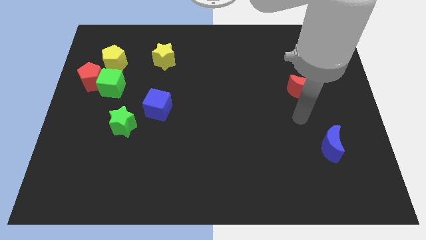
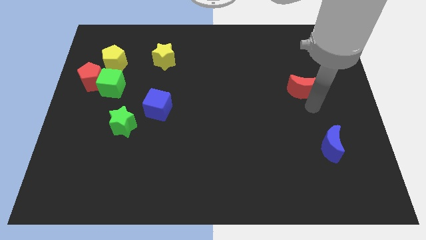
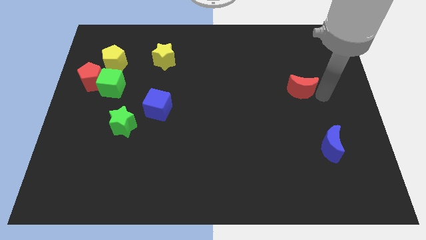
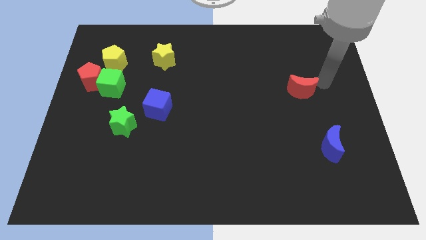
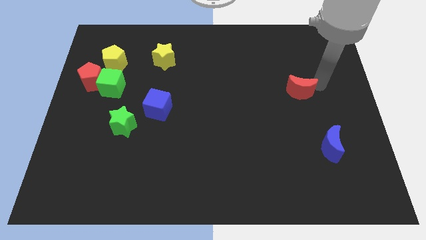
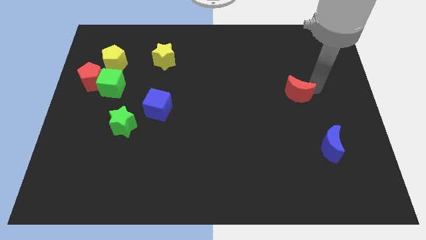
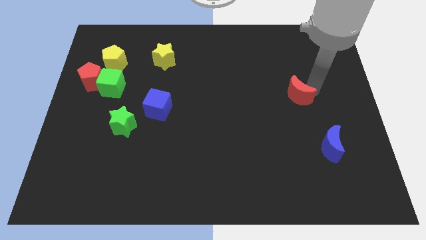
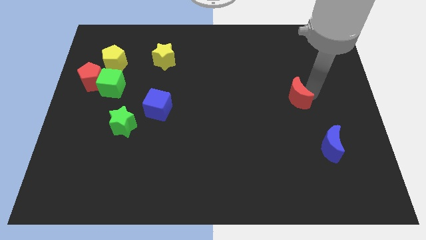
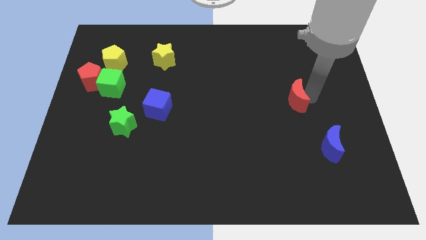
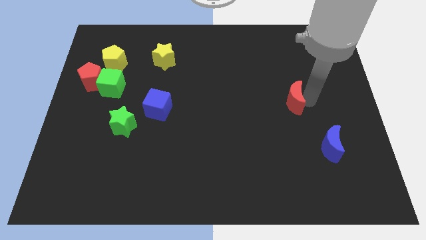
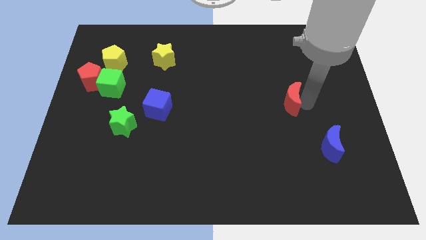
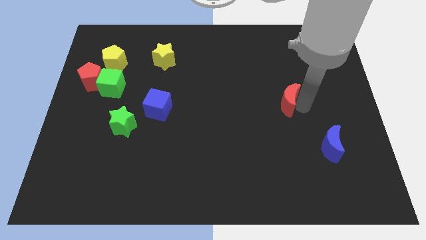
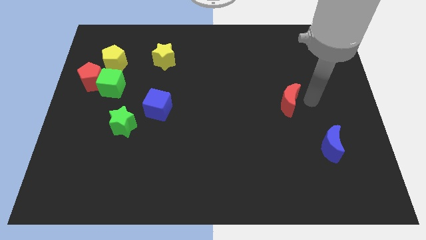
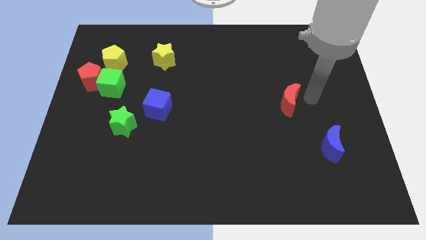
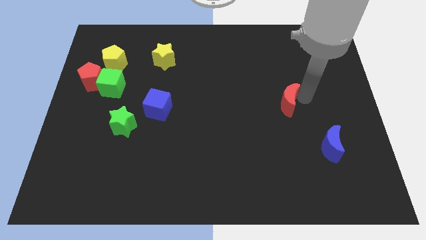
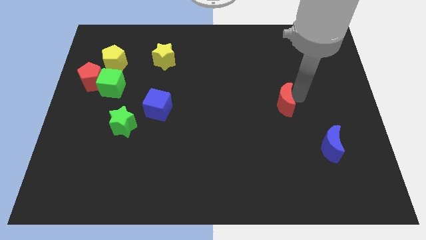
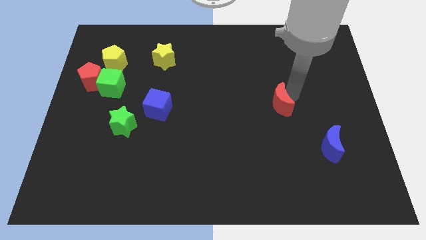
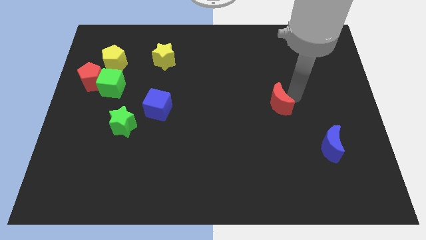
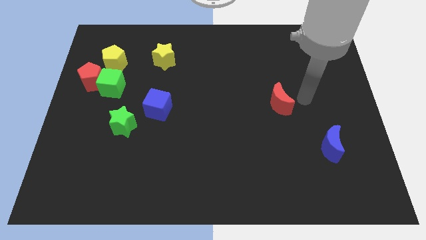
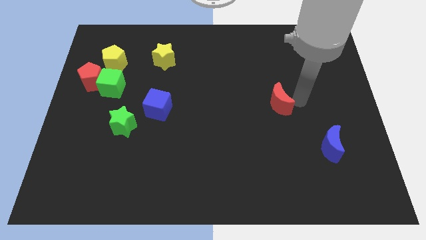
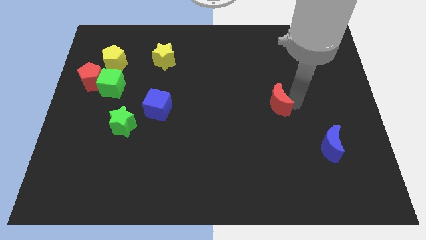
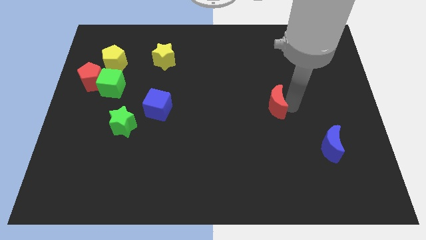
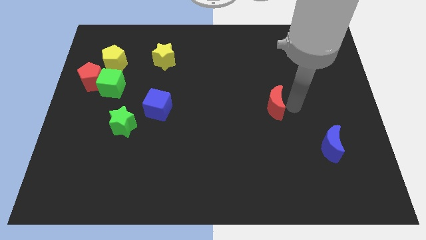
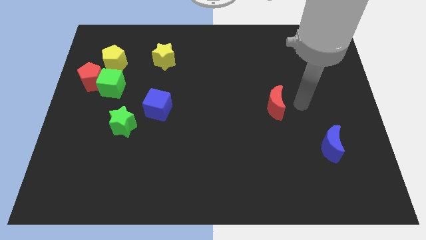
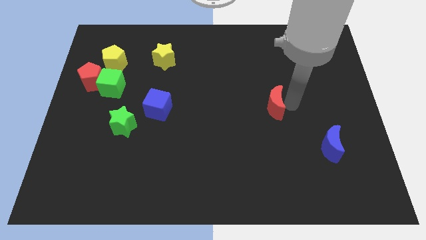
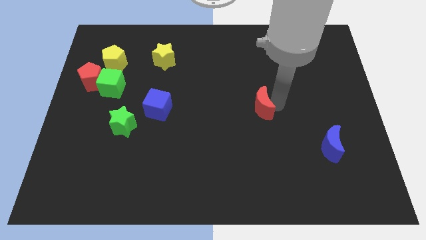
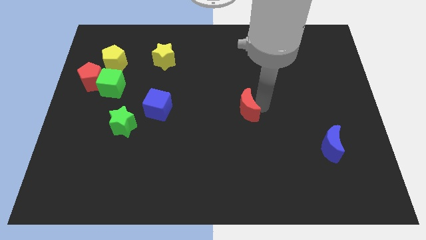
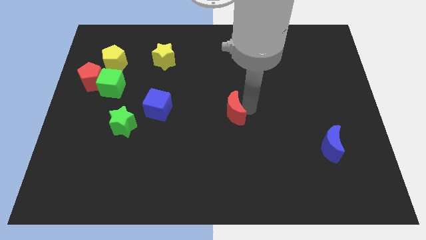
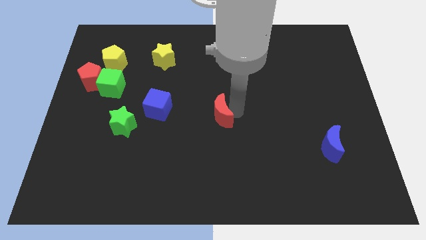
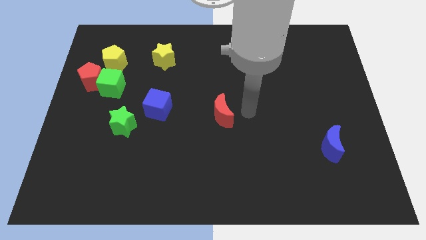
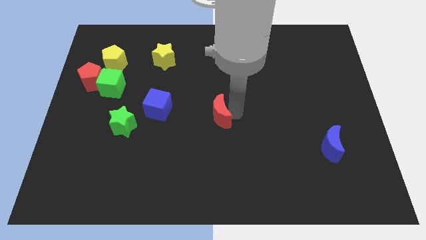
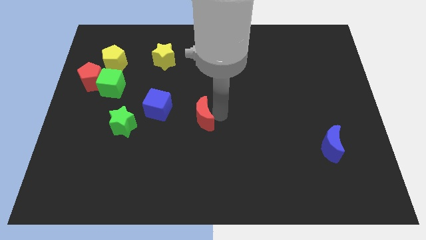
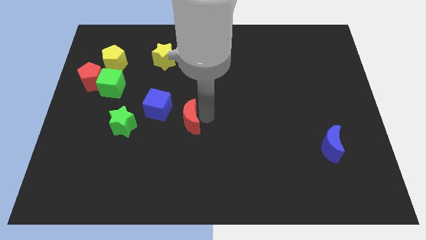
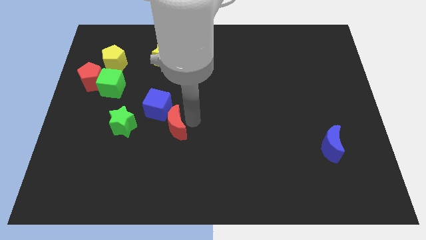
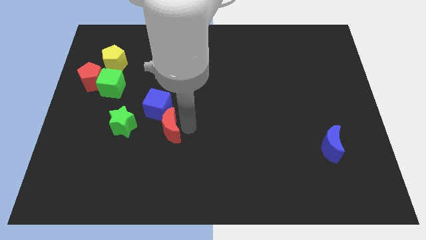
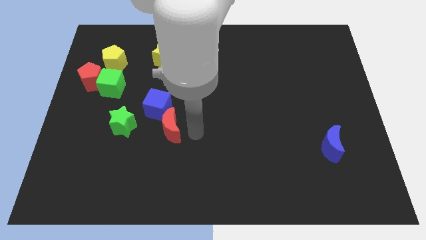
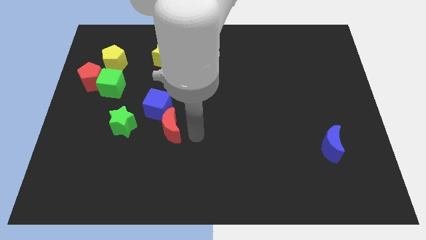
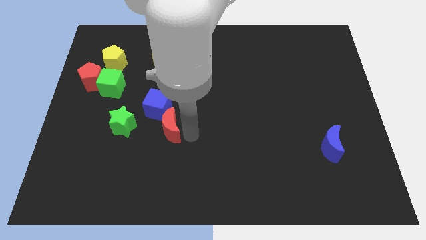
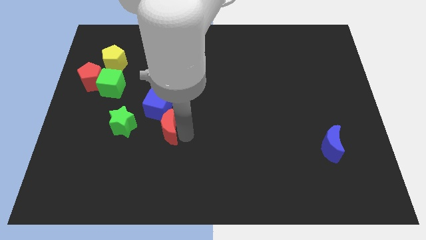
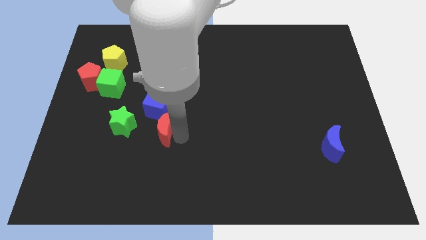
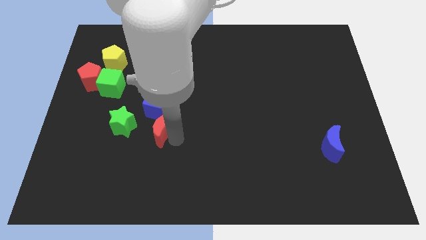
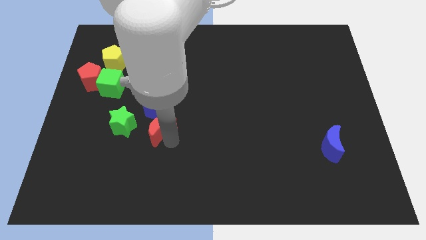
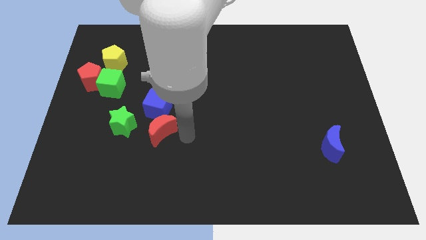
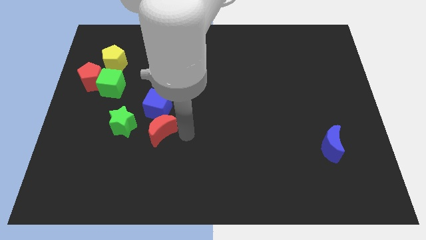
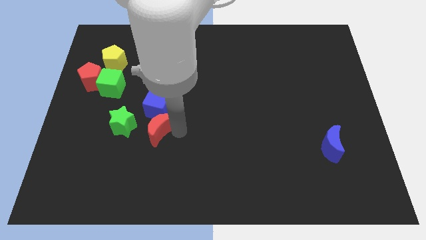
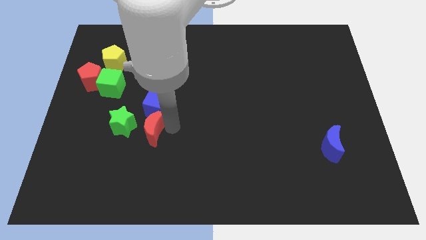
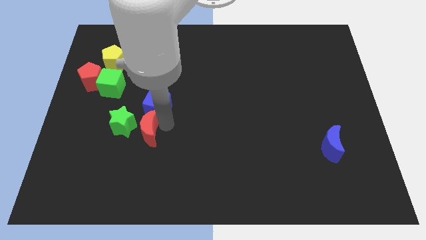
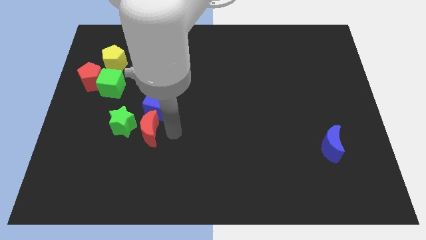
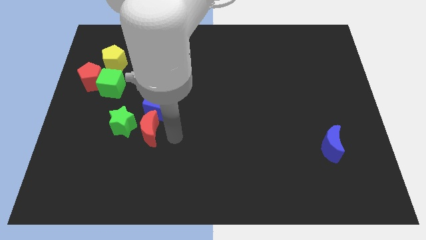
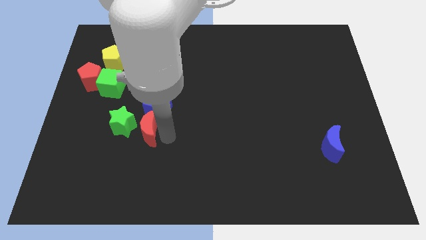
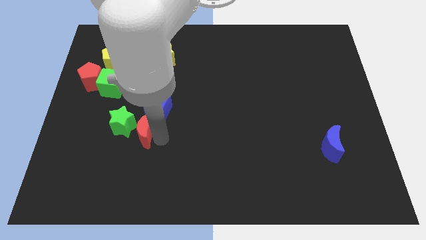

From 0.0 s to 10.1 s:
move the red moon to the green star

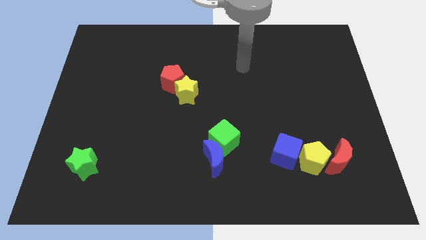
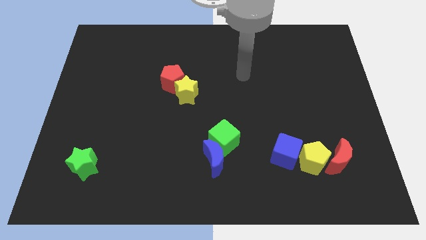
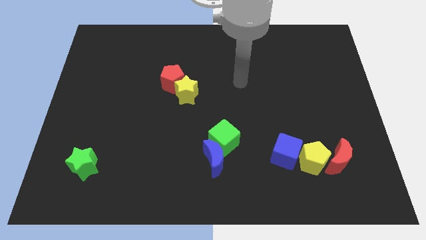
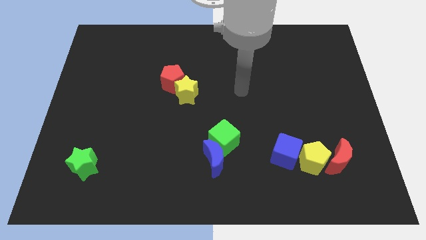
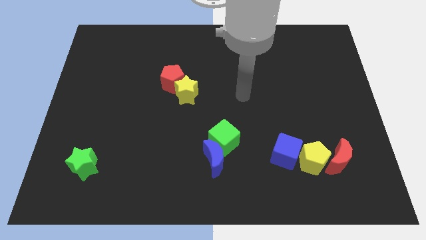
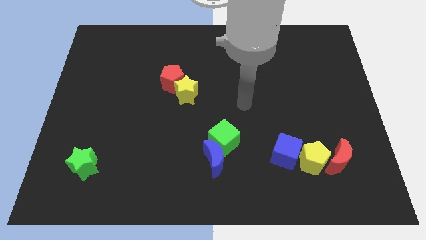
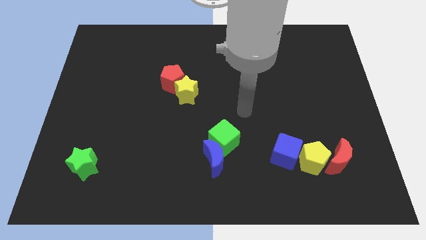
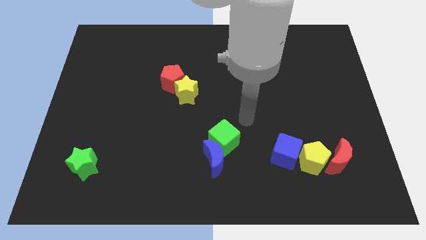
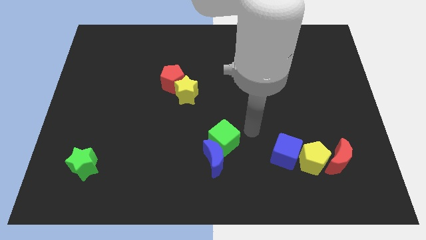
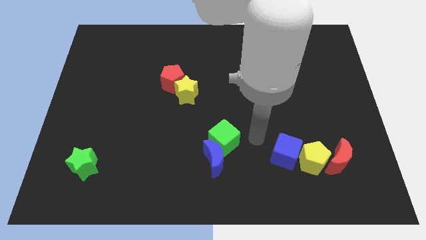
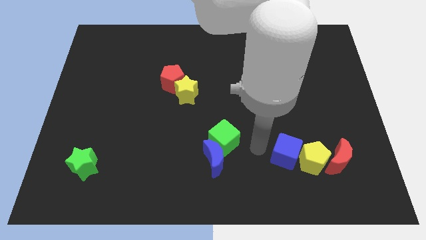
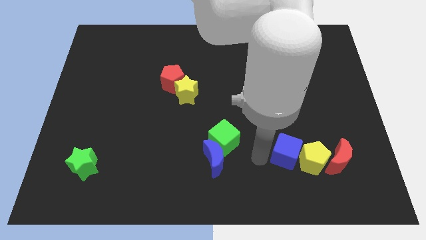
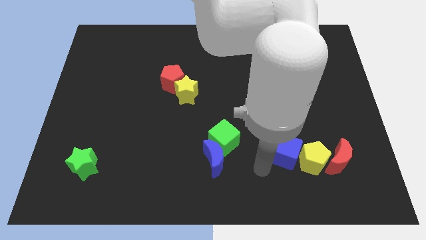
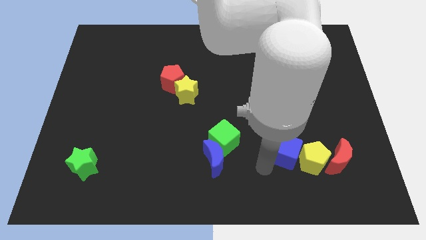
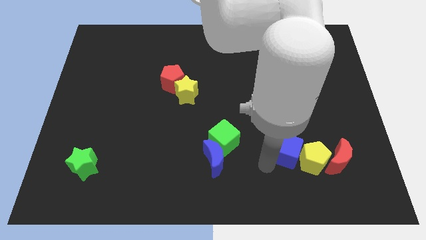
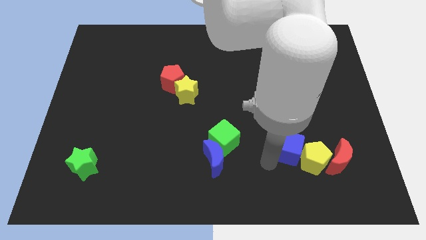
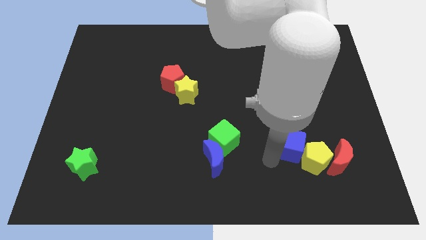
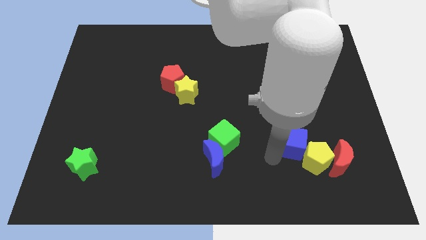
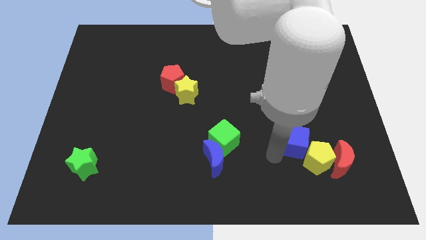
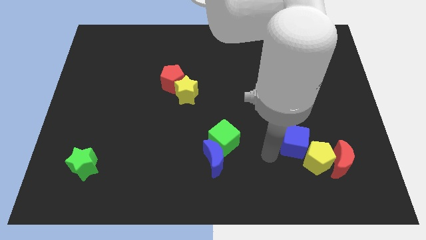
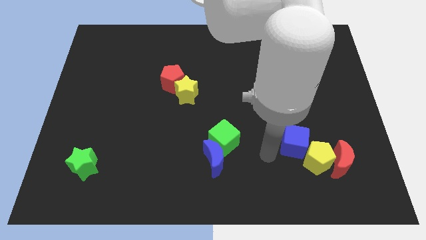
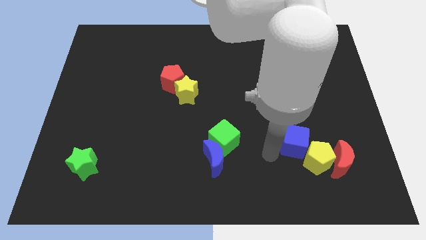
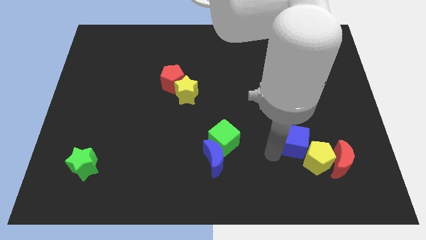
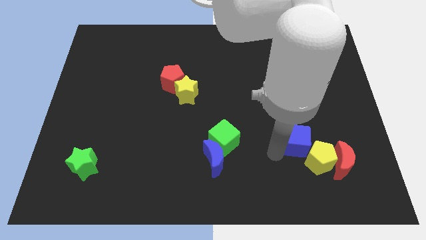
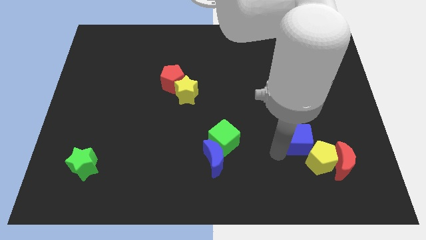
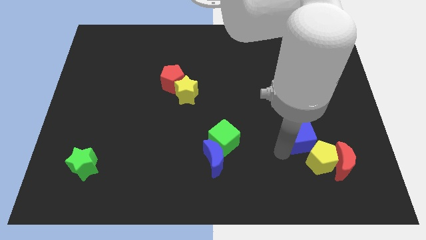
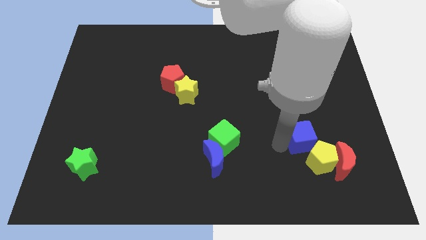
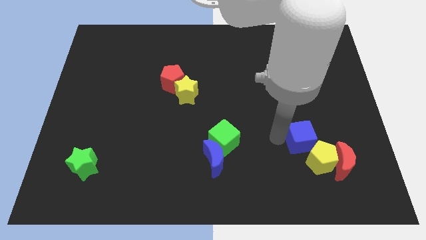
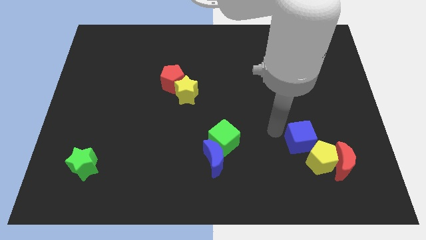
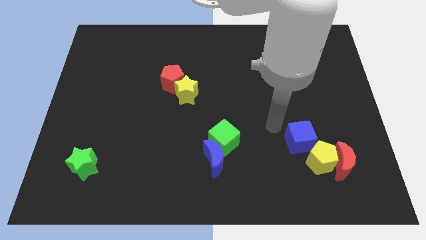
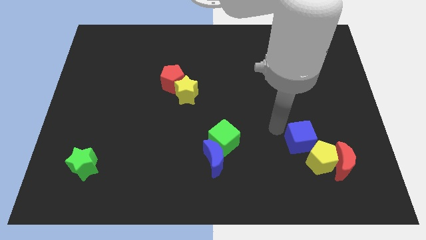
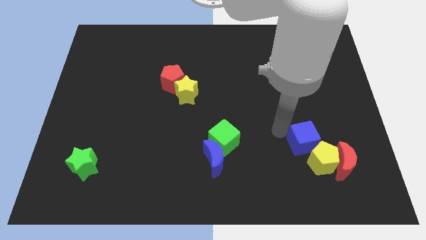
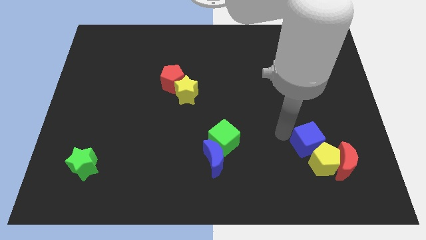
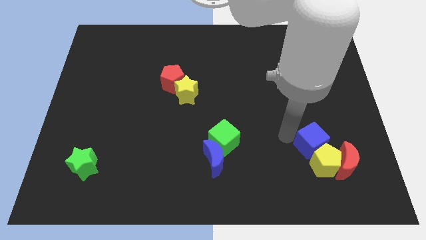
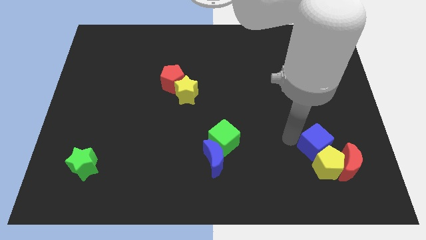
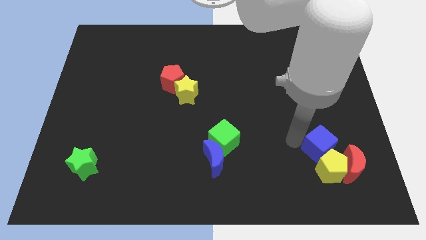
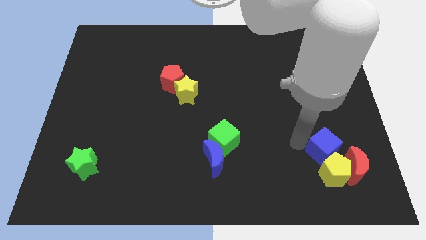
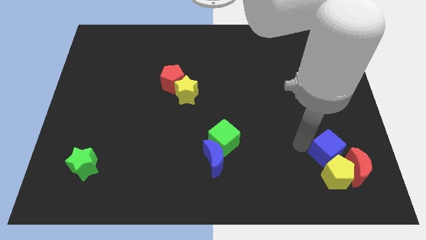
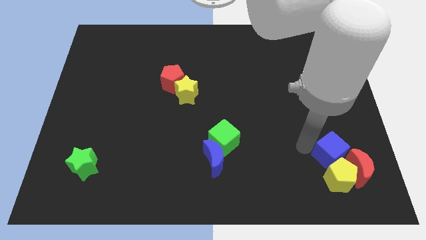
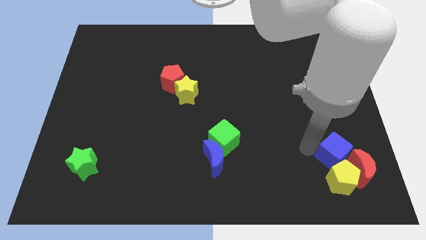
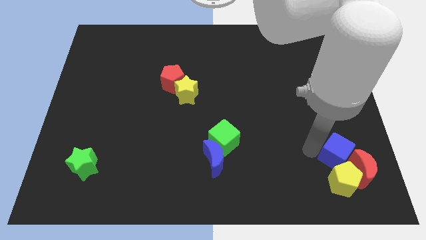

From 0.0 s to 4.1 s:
move the blue cube towards the red moon
